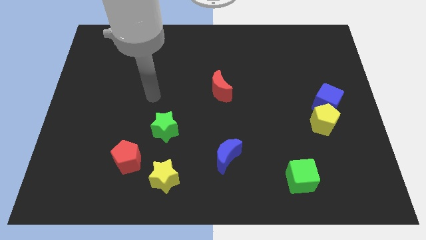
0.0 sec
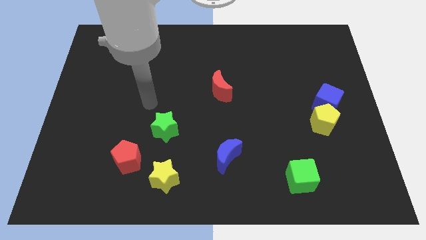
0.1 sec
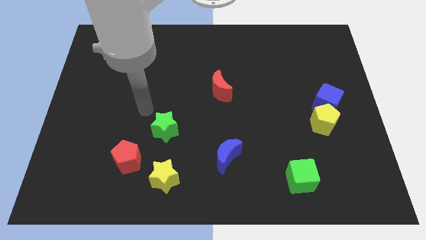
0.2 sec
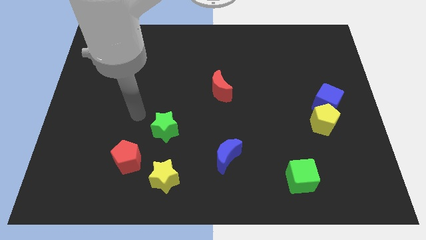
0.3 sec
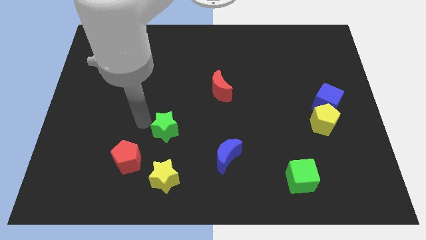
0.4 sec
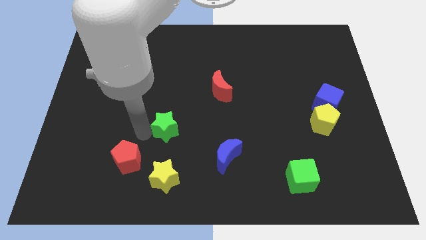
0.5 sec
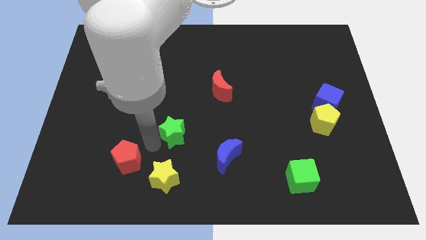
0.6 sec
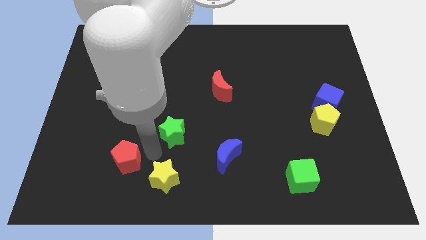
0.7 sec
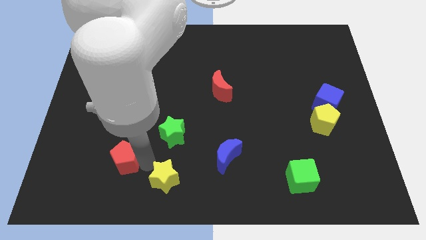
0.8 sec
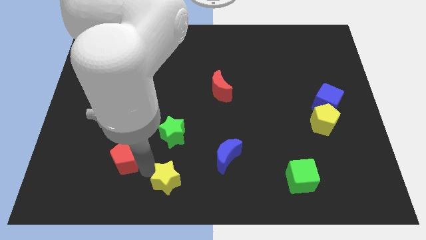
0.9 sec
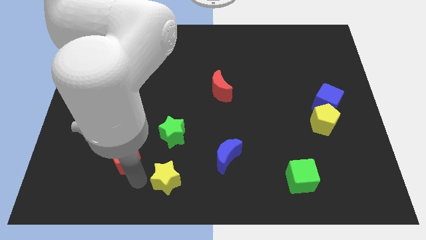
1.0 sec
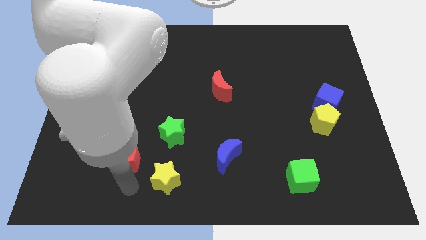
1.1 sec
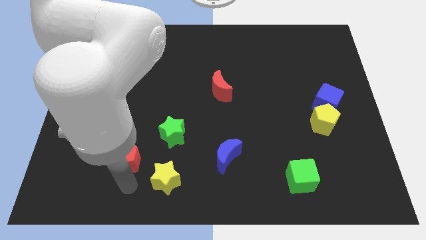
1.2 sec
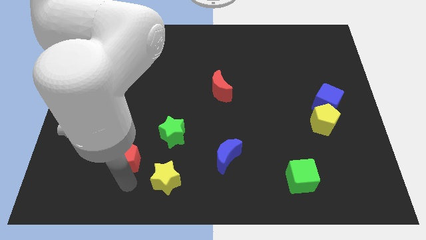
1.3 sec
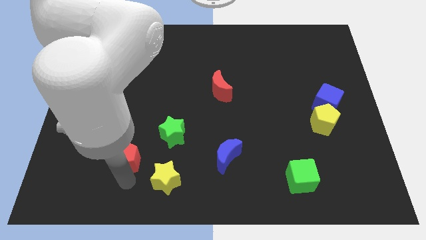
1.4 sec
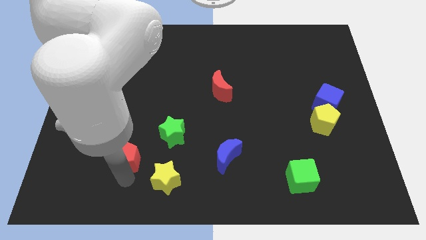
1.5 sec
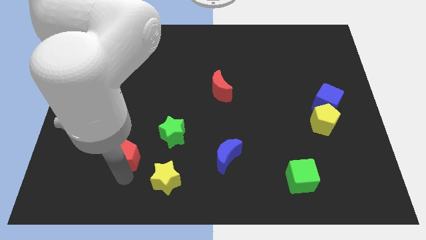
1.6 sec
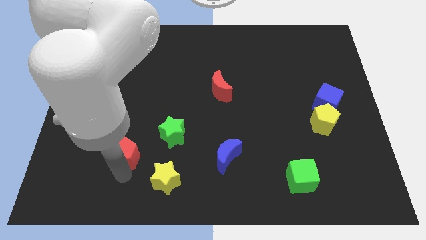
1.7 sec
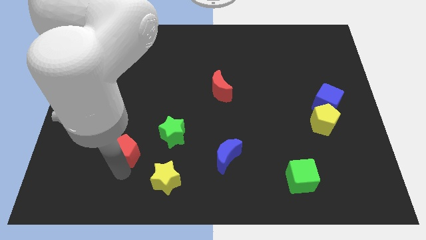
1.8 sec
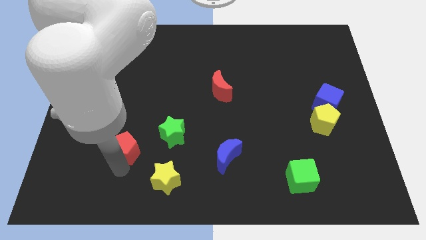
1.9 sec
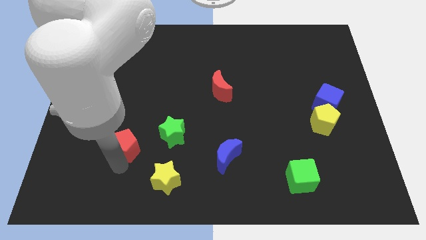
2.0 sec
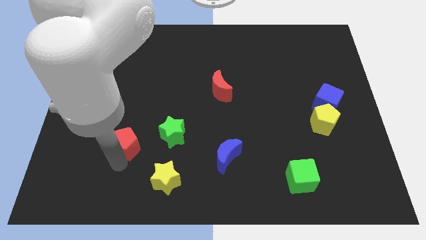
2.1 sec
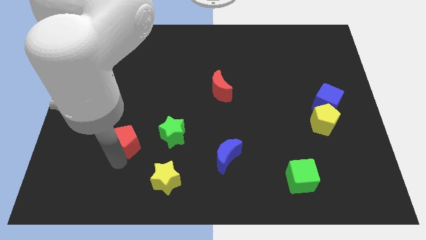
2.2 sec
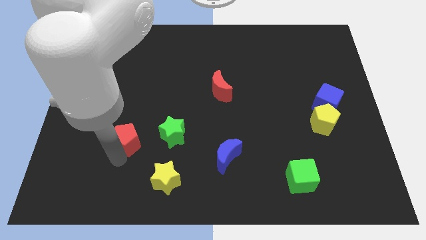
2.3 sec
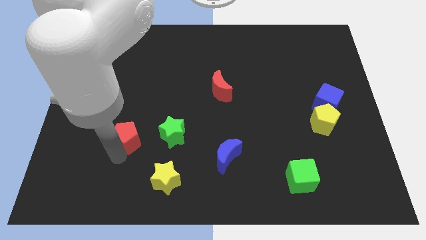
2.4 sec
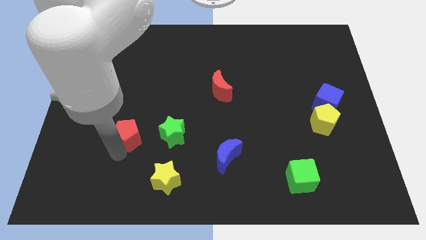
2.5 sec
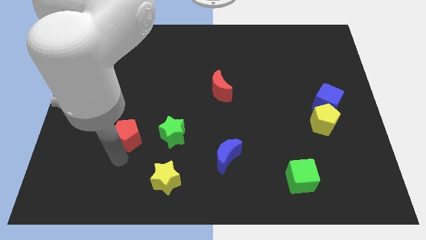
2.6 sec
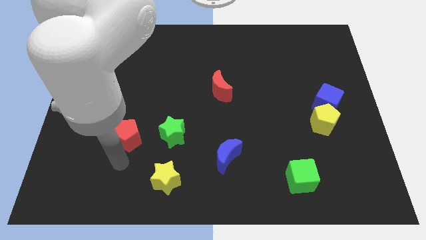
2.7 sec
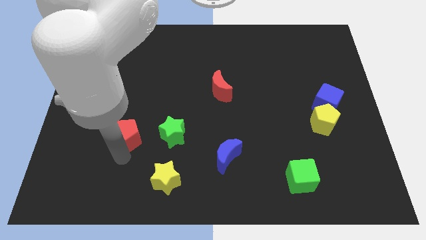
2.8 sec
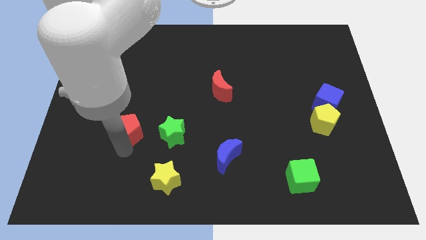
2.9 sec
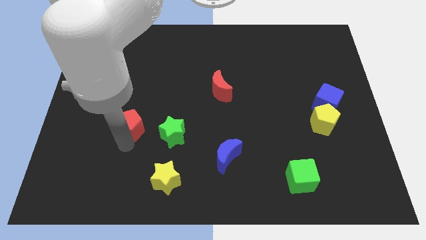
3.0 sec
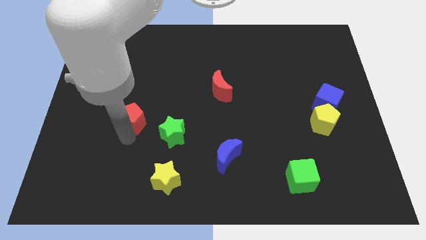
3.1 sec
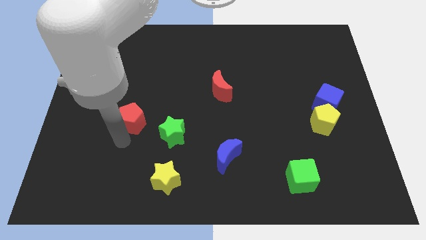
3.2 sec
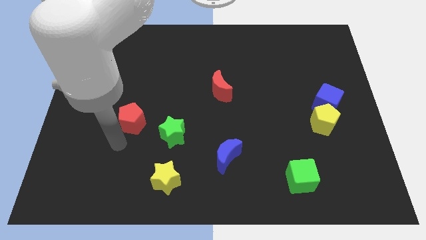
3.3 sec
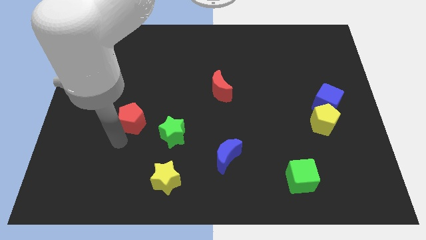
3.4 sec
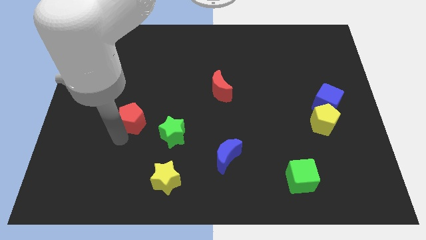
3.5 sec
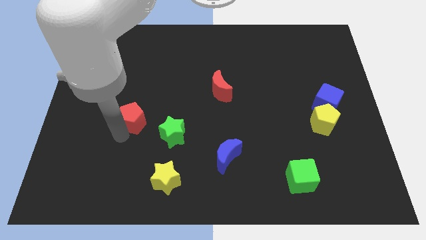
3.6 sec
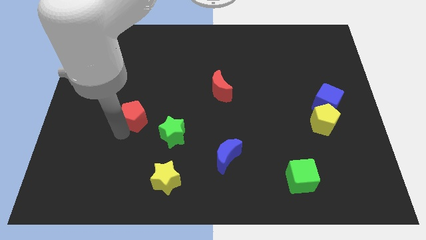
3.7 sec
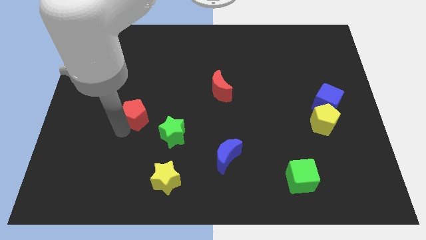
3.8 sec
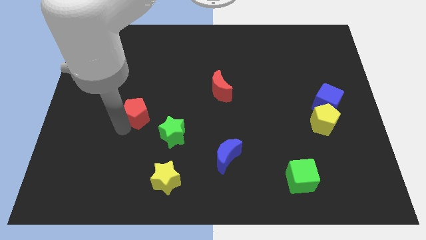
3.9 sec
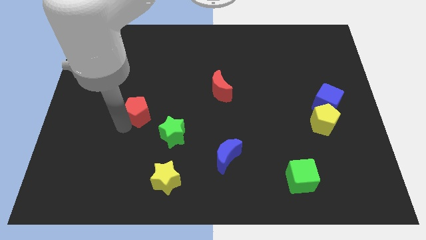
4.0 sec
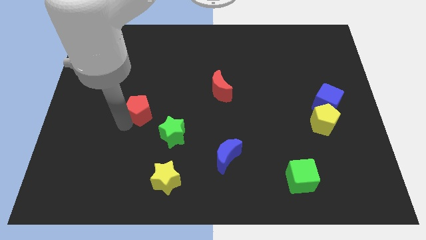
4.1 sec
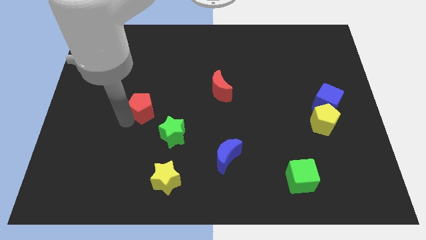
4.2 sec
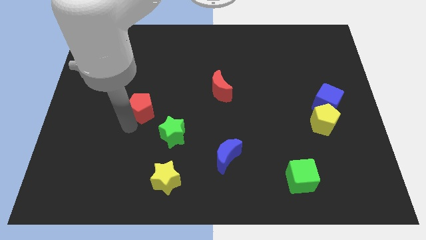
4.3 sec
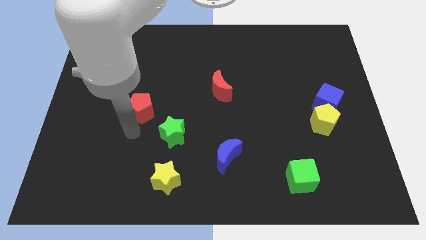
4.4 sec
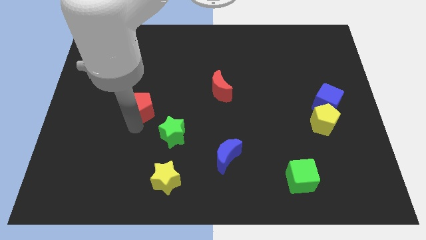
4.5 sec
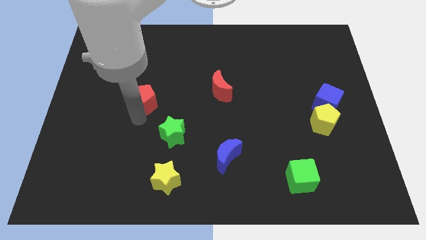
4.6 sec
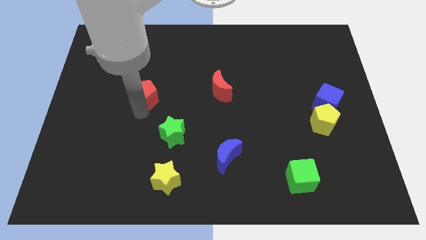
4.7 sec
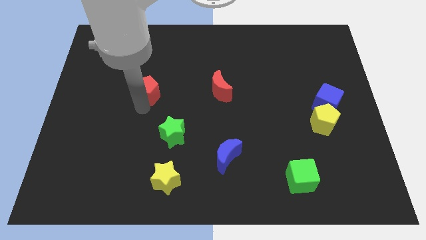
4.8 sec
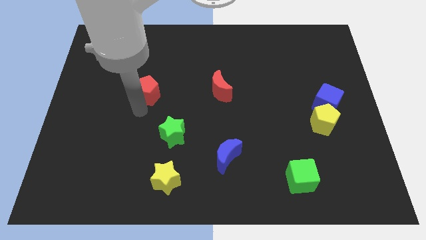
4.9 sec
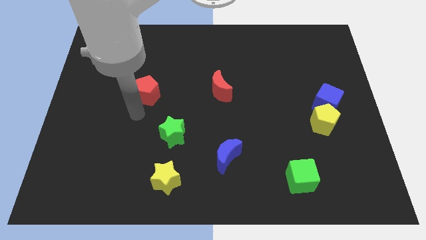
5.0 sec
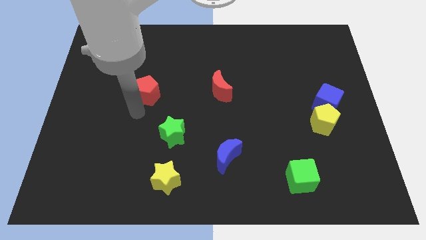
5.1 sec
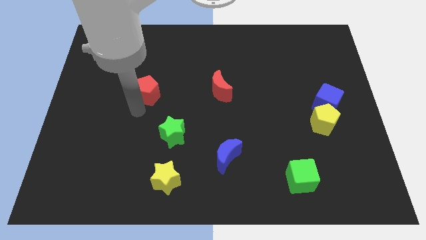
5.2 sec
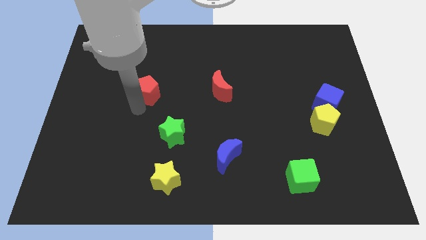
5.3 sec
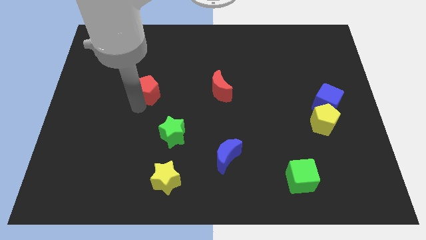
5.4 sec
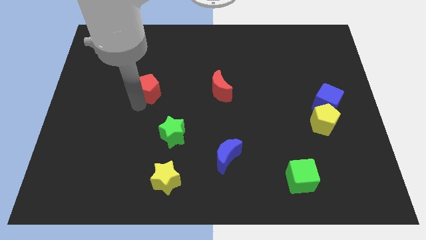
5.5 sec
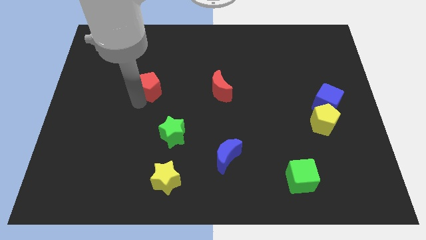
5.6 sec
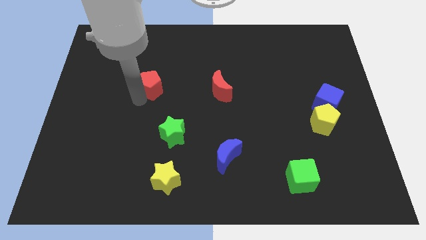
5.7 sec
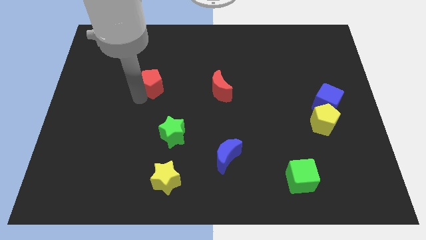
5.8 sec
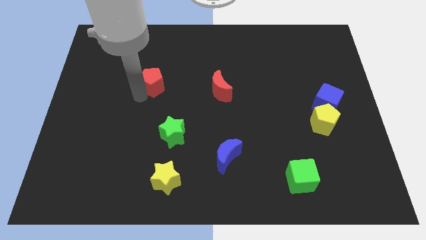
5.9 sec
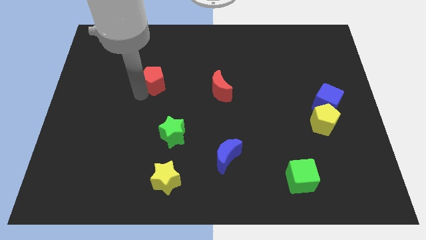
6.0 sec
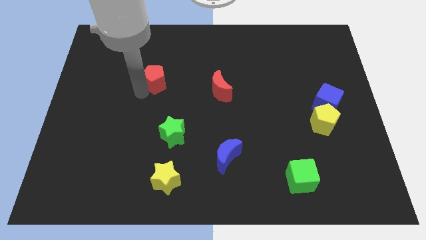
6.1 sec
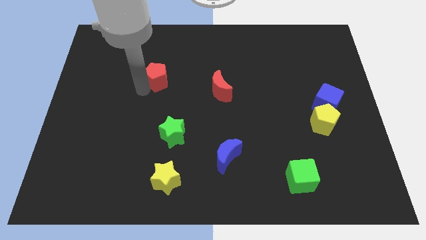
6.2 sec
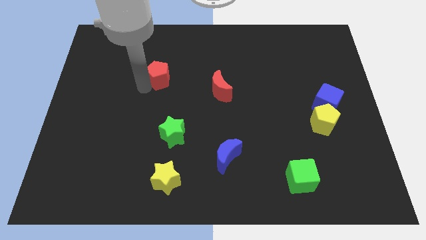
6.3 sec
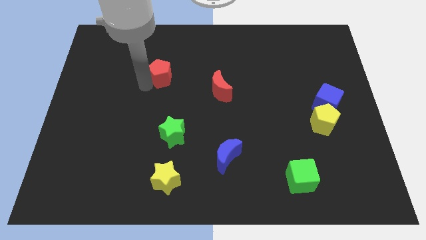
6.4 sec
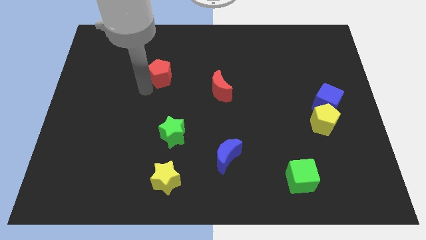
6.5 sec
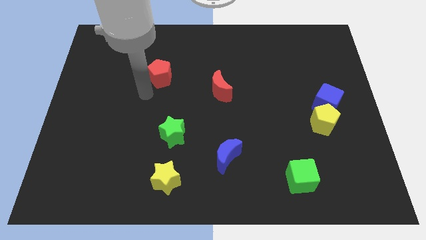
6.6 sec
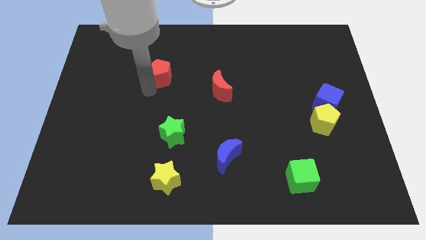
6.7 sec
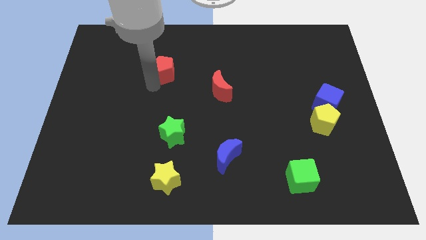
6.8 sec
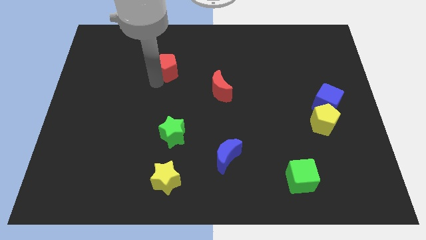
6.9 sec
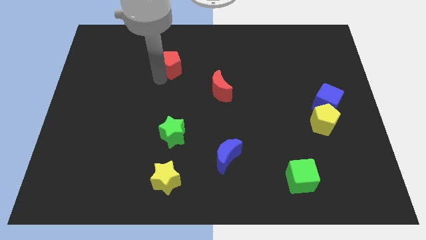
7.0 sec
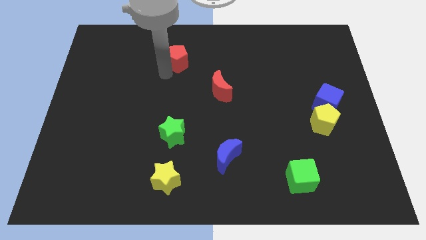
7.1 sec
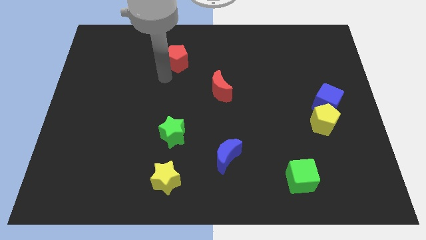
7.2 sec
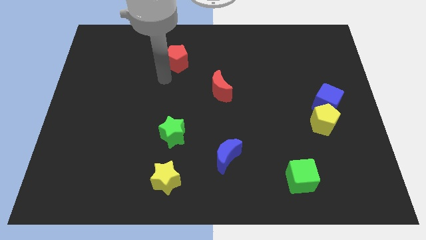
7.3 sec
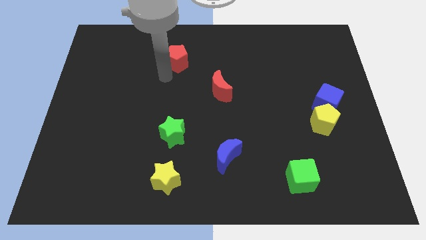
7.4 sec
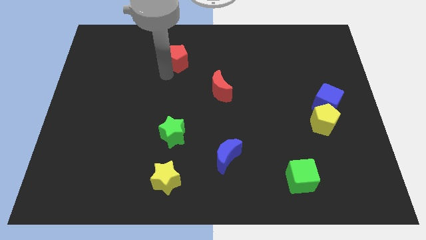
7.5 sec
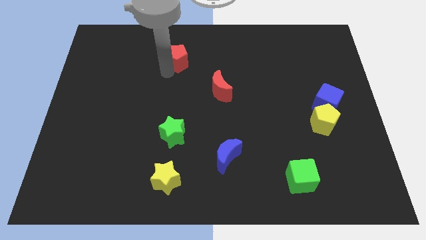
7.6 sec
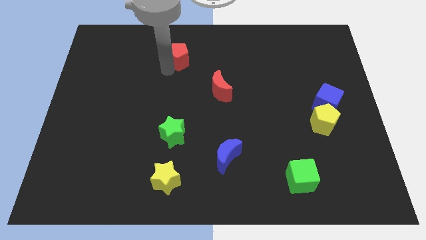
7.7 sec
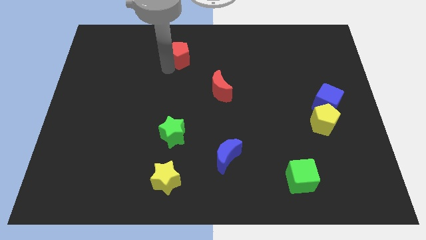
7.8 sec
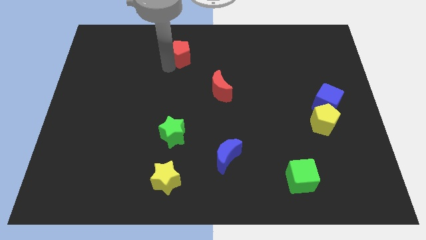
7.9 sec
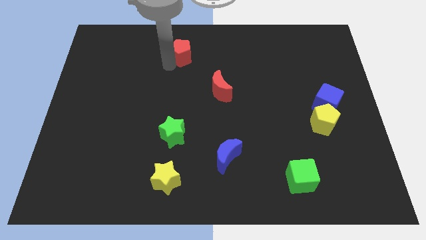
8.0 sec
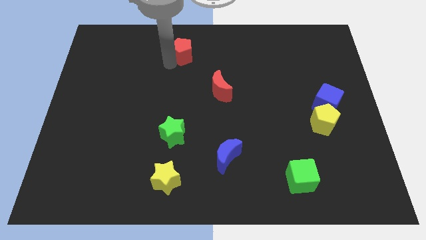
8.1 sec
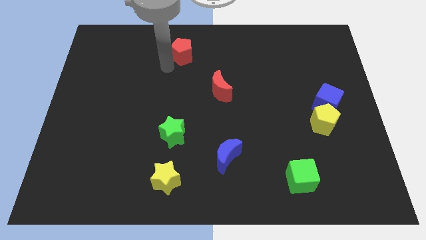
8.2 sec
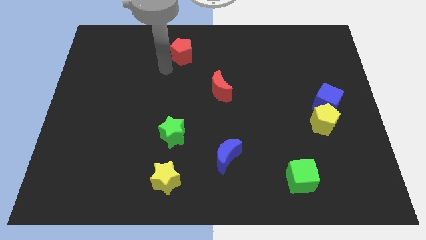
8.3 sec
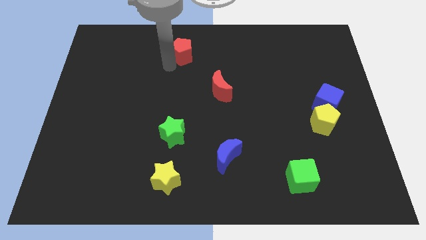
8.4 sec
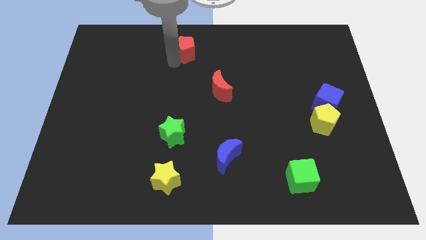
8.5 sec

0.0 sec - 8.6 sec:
push the red pentagon to the top
